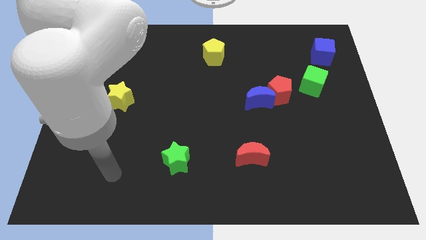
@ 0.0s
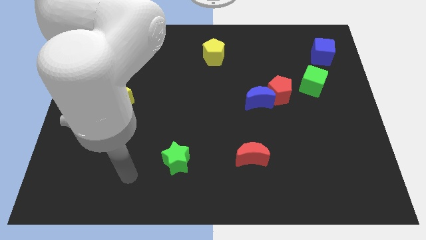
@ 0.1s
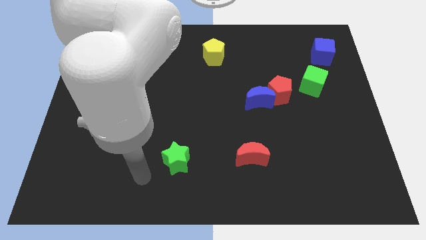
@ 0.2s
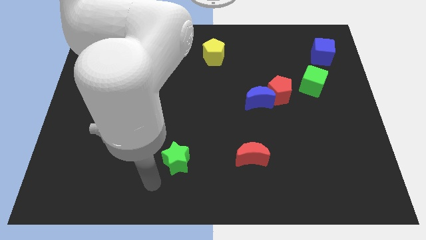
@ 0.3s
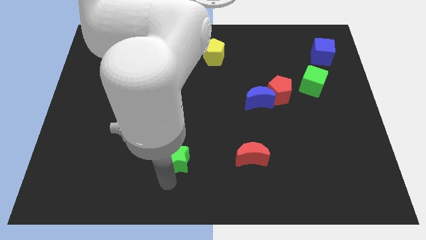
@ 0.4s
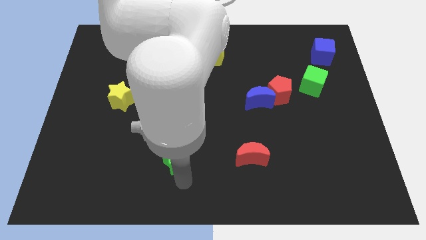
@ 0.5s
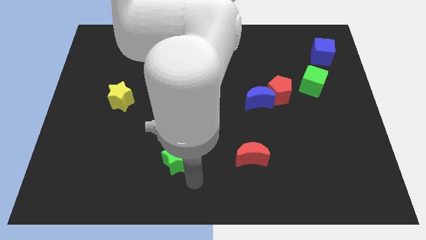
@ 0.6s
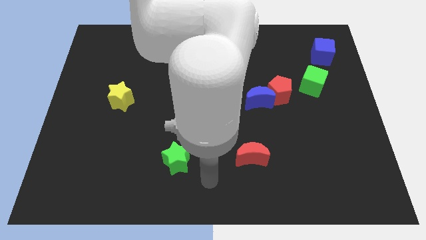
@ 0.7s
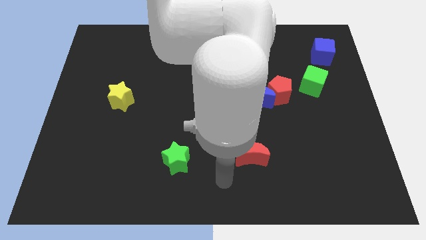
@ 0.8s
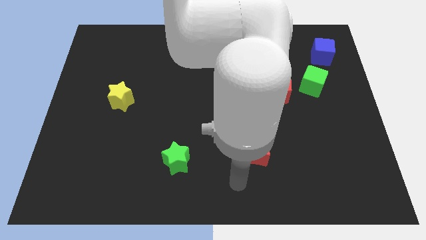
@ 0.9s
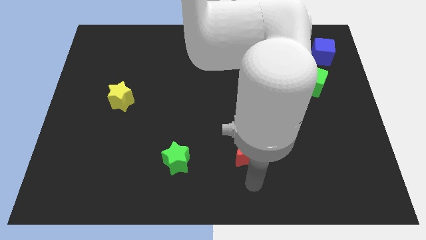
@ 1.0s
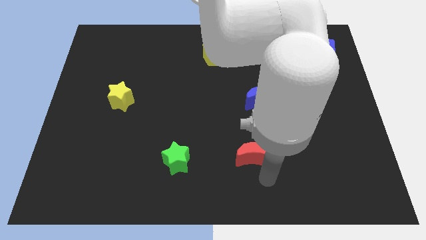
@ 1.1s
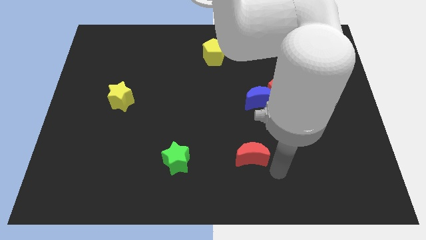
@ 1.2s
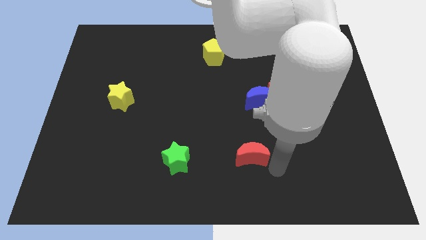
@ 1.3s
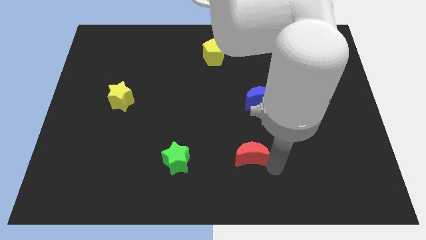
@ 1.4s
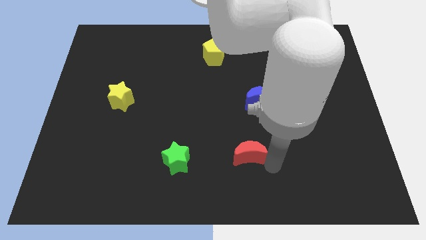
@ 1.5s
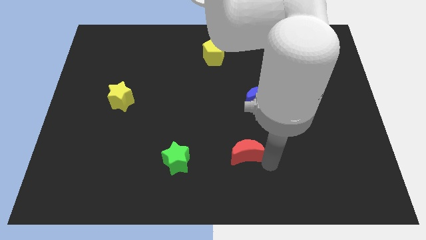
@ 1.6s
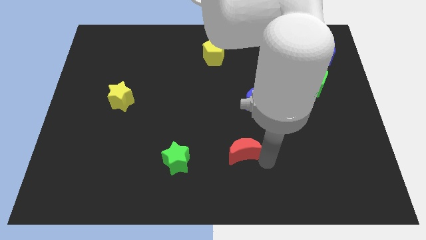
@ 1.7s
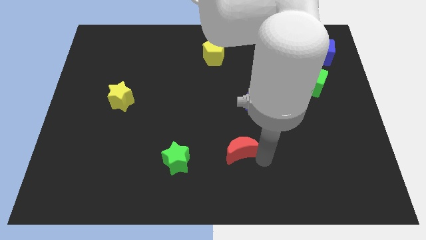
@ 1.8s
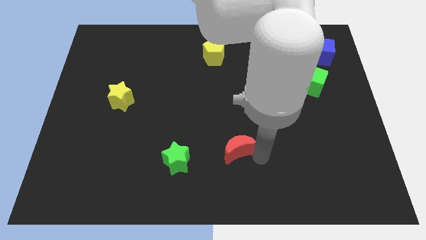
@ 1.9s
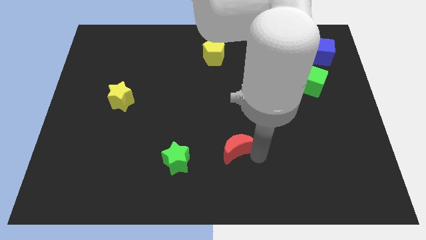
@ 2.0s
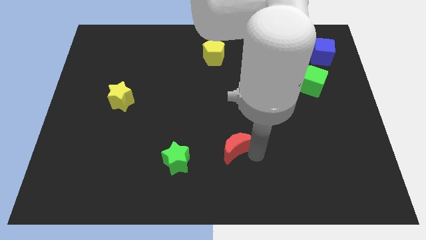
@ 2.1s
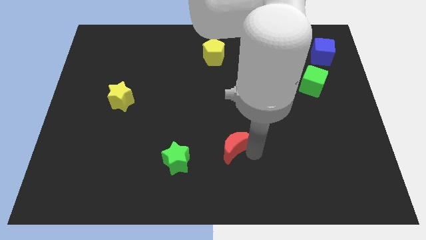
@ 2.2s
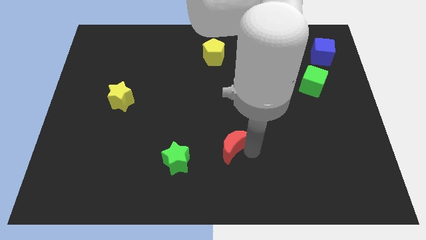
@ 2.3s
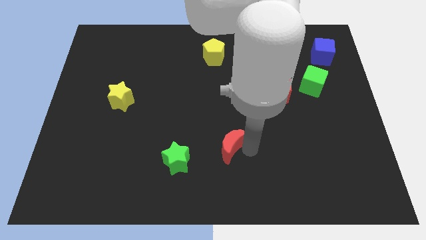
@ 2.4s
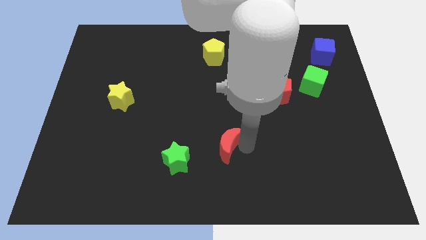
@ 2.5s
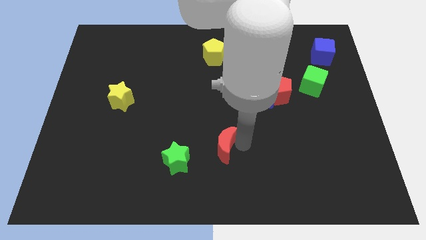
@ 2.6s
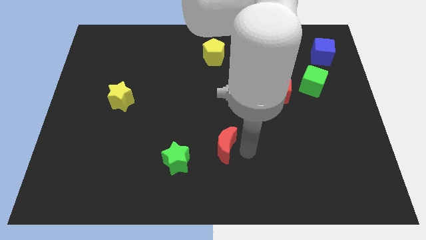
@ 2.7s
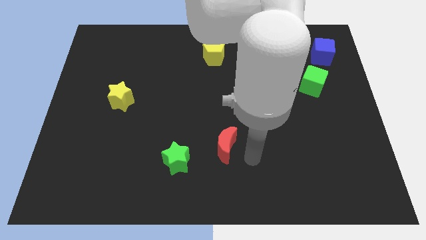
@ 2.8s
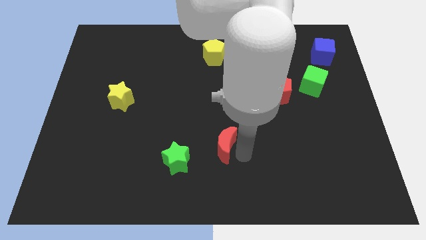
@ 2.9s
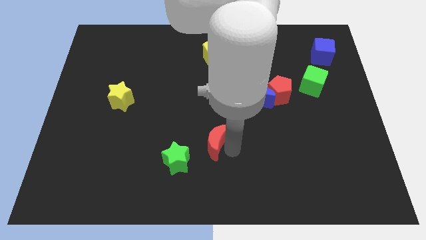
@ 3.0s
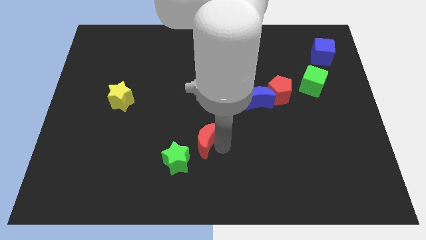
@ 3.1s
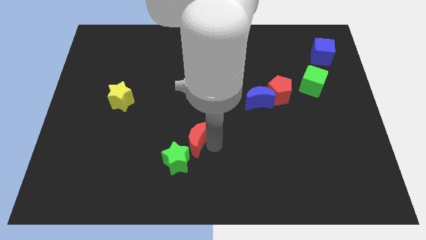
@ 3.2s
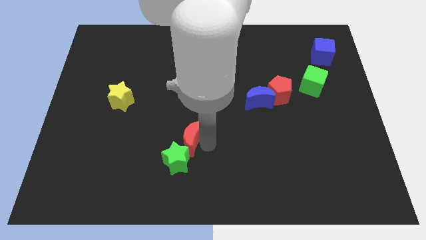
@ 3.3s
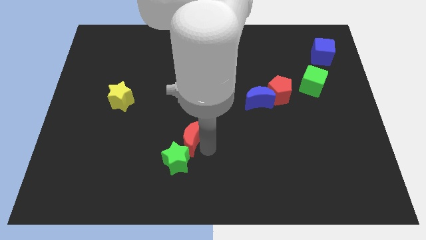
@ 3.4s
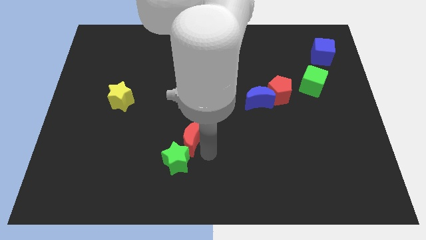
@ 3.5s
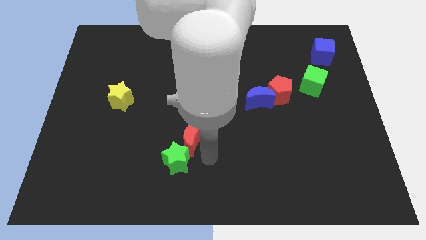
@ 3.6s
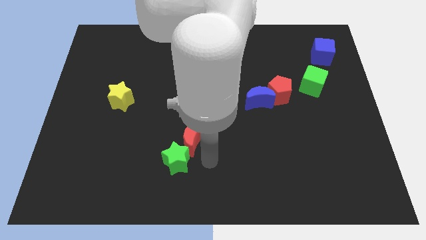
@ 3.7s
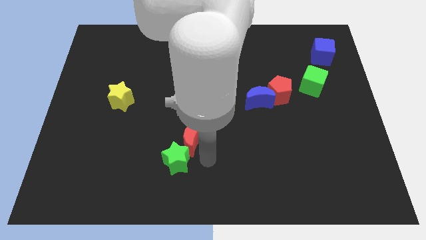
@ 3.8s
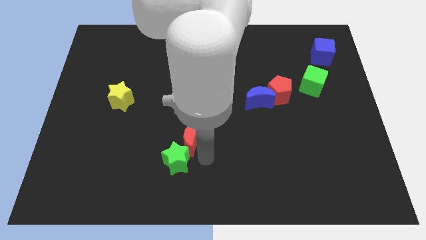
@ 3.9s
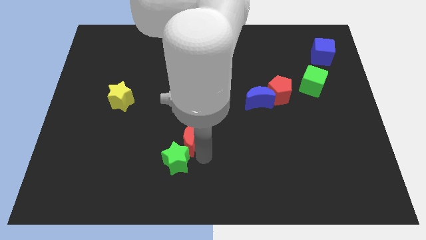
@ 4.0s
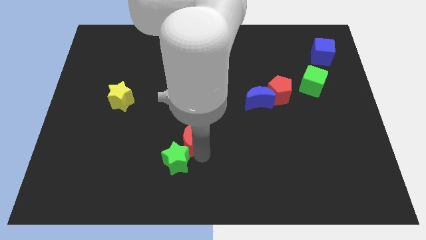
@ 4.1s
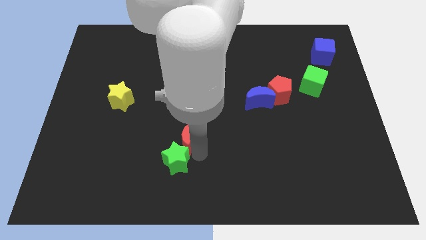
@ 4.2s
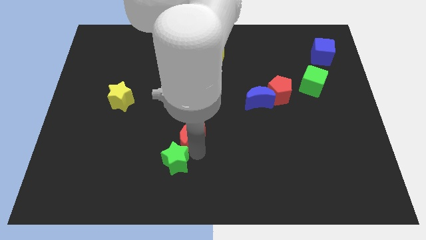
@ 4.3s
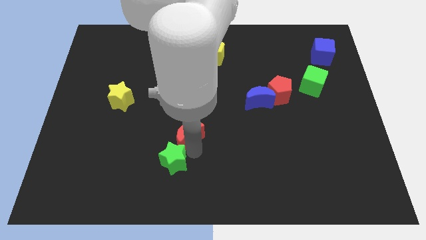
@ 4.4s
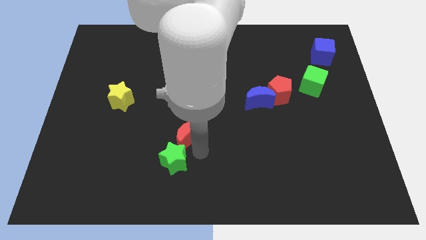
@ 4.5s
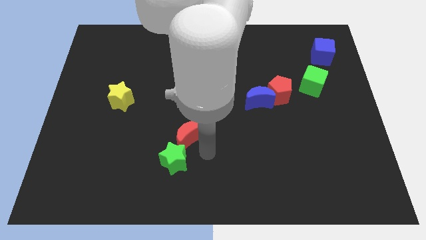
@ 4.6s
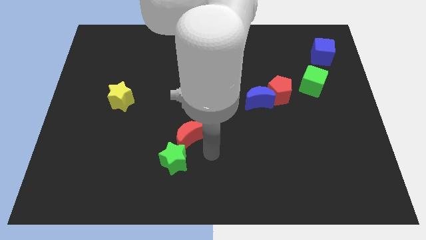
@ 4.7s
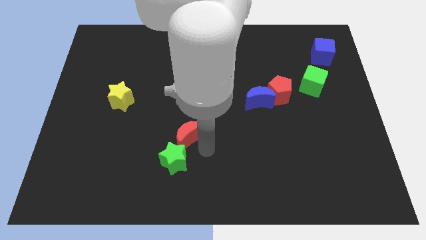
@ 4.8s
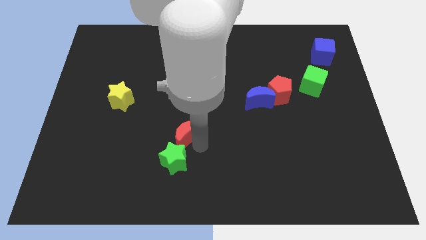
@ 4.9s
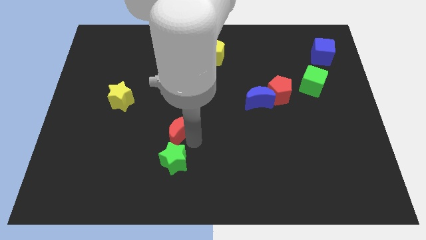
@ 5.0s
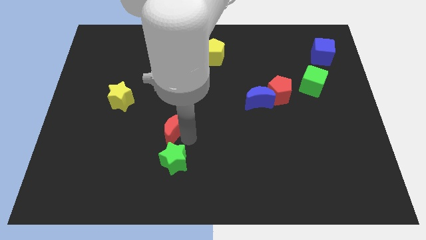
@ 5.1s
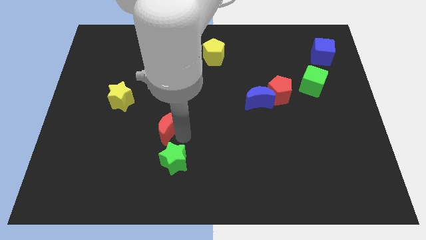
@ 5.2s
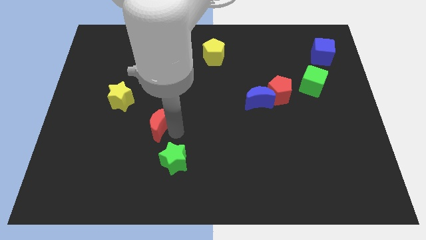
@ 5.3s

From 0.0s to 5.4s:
put the red moon diagonally down and to the right of the yellow star

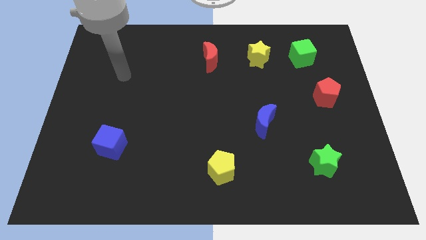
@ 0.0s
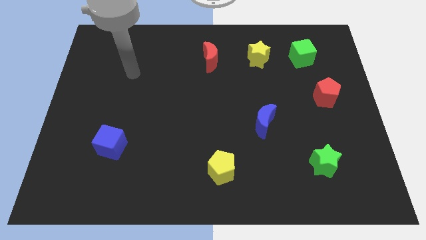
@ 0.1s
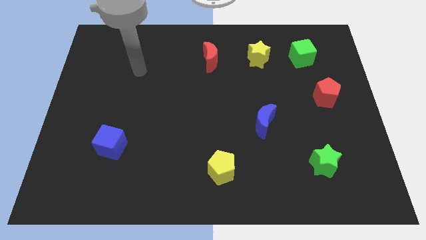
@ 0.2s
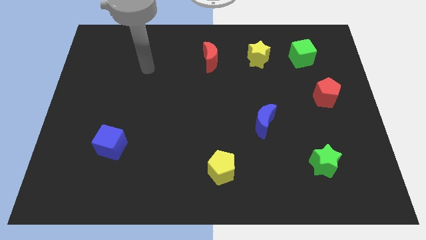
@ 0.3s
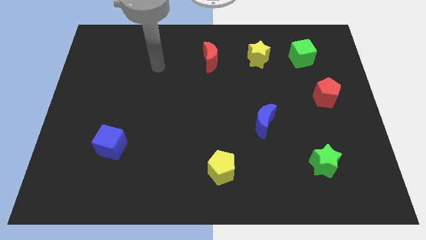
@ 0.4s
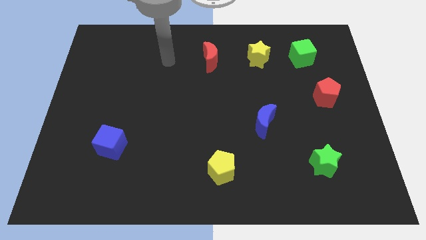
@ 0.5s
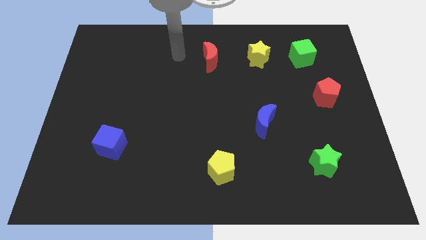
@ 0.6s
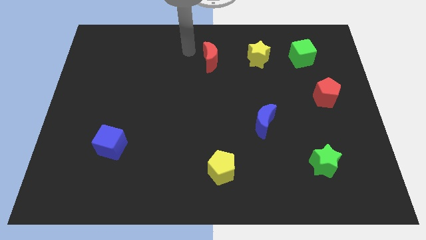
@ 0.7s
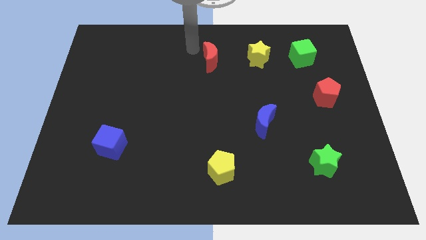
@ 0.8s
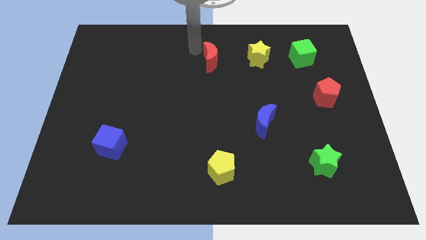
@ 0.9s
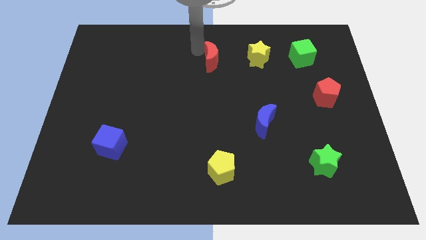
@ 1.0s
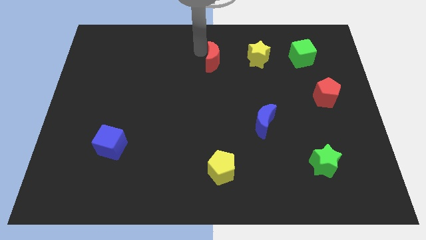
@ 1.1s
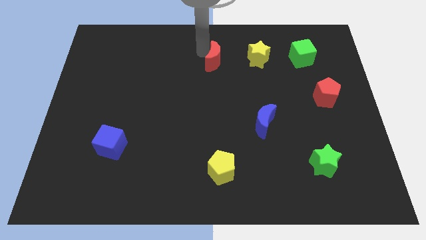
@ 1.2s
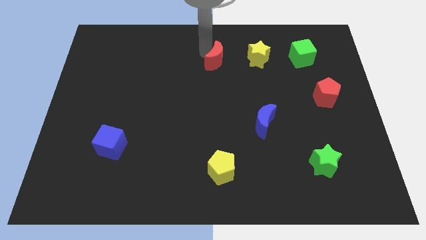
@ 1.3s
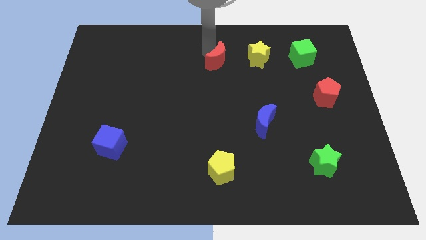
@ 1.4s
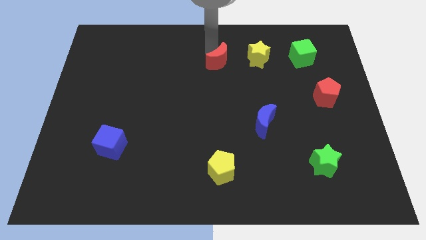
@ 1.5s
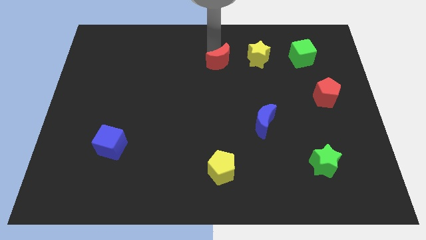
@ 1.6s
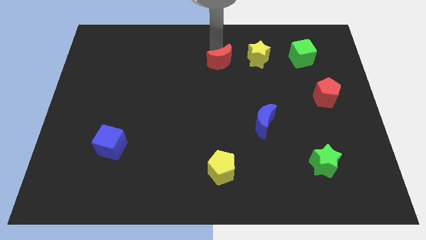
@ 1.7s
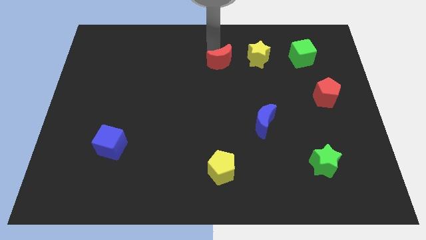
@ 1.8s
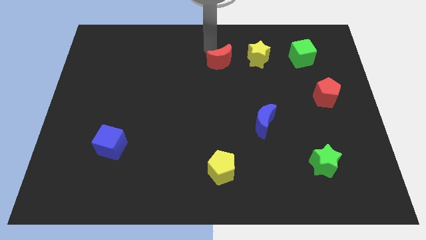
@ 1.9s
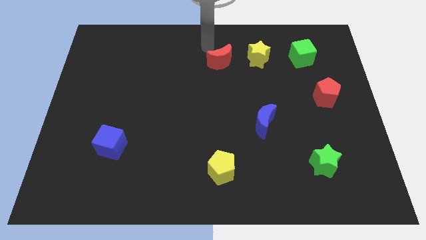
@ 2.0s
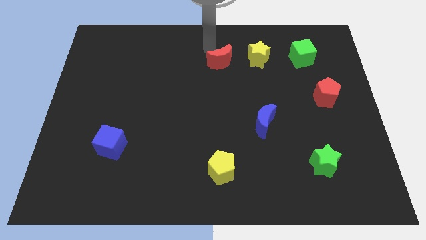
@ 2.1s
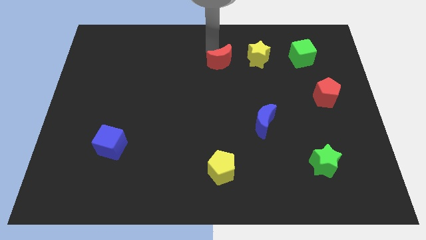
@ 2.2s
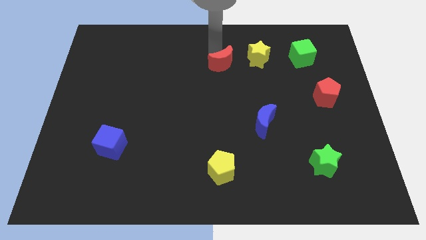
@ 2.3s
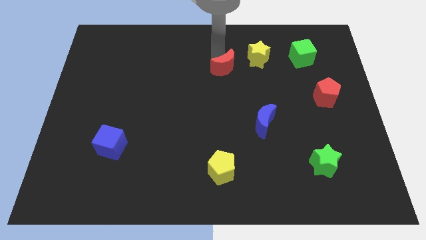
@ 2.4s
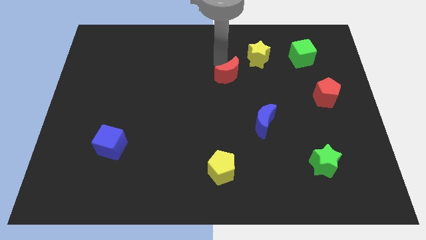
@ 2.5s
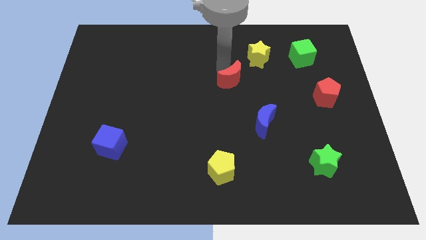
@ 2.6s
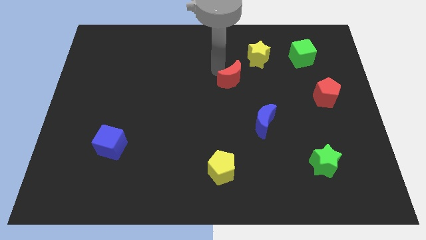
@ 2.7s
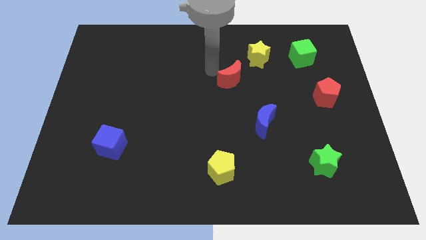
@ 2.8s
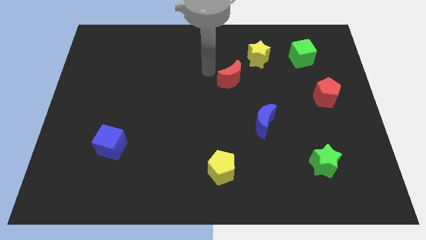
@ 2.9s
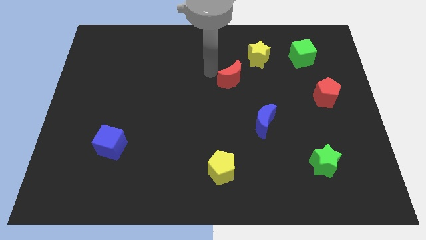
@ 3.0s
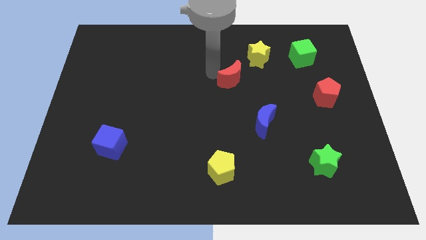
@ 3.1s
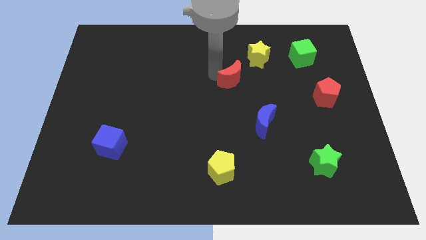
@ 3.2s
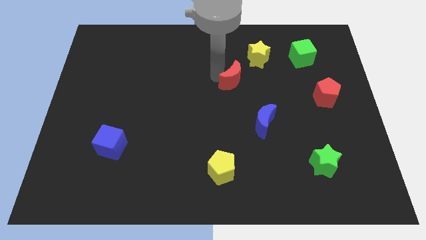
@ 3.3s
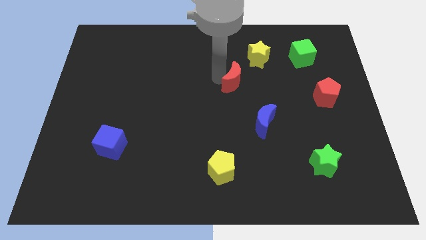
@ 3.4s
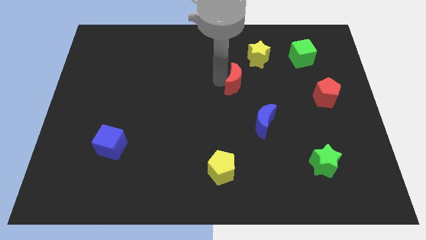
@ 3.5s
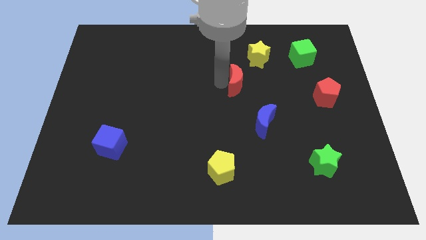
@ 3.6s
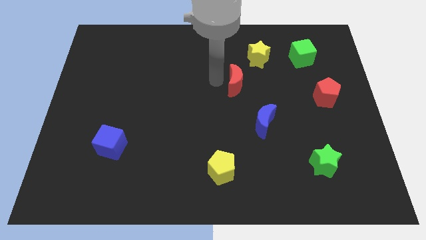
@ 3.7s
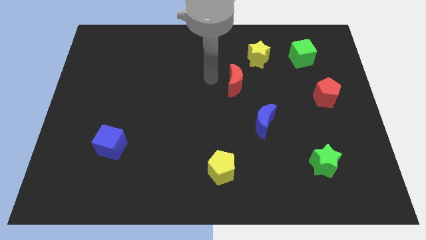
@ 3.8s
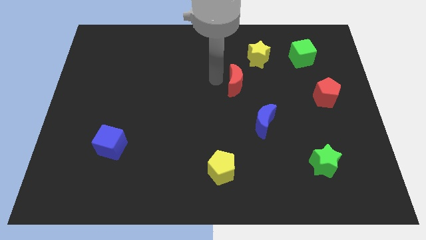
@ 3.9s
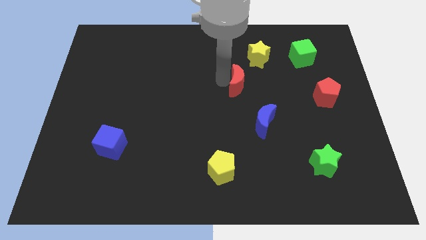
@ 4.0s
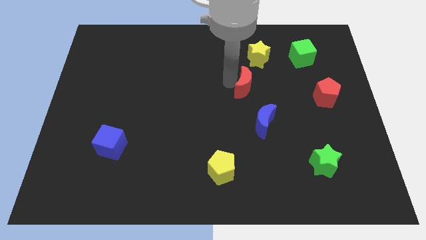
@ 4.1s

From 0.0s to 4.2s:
move the red moon to the top side of the blue moon
